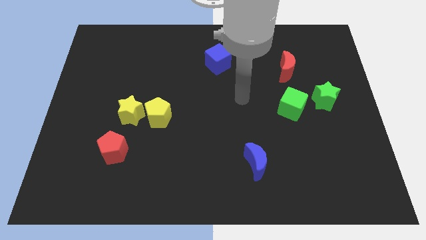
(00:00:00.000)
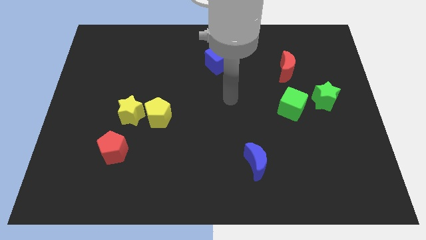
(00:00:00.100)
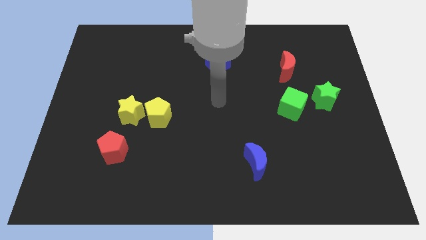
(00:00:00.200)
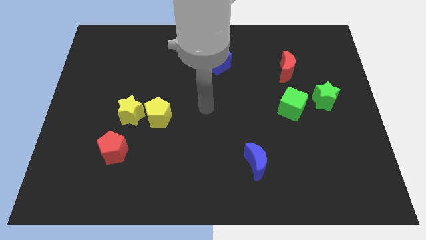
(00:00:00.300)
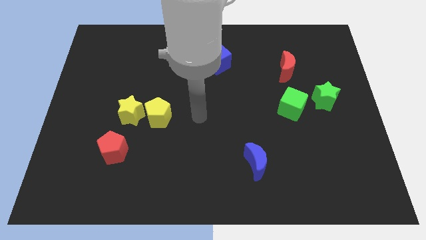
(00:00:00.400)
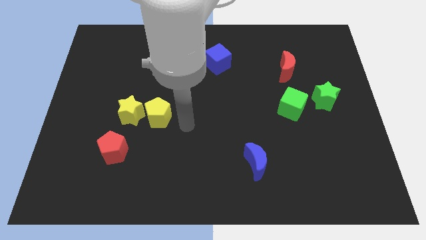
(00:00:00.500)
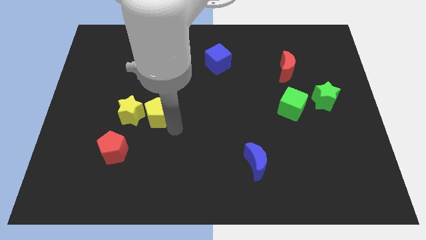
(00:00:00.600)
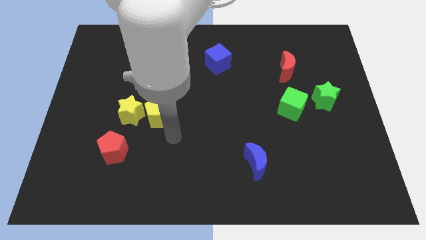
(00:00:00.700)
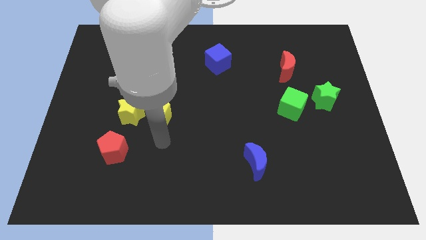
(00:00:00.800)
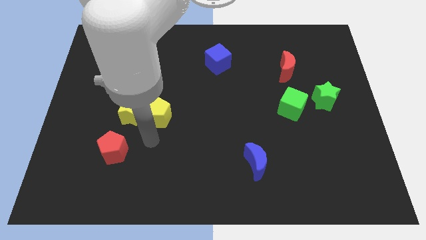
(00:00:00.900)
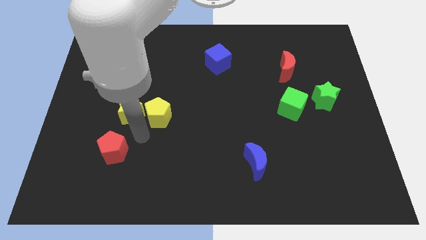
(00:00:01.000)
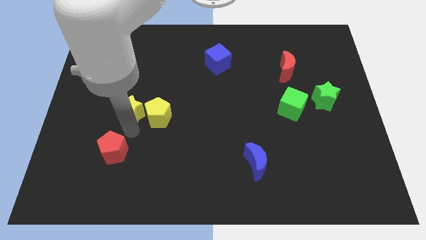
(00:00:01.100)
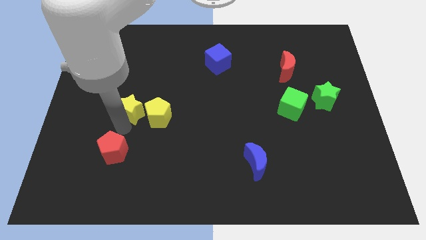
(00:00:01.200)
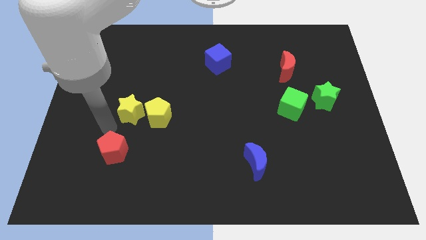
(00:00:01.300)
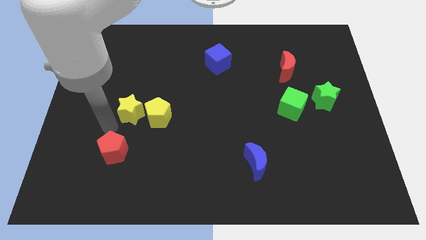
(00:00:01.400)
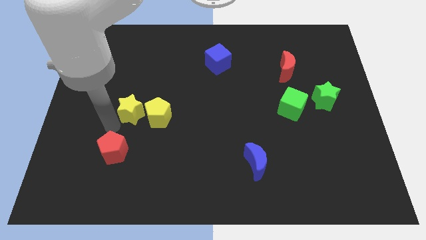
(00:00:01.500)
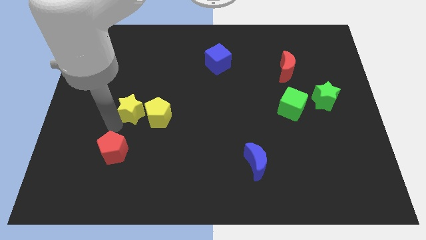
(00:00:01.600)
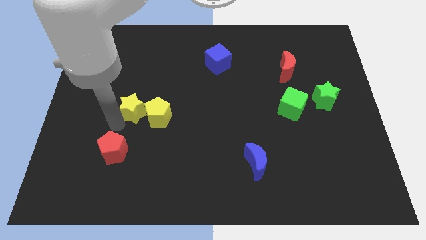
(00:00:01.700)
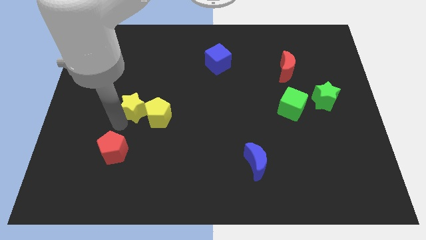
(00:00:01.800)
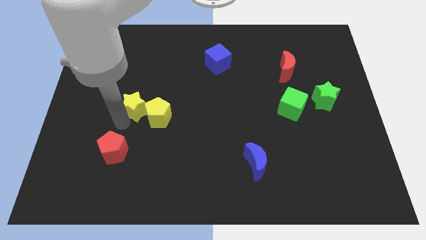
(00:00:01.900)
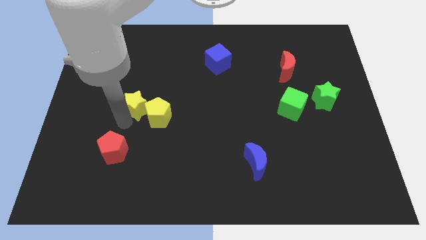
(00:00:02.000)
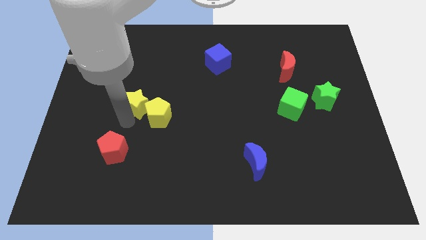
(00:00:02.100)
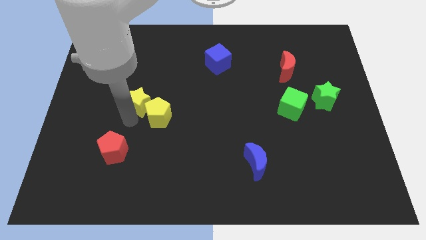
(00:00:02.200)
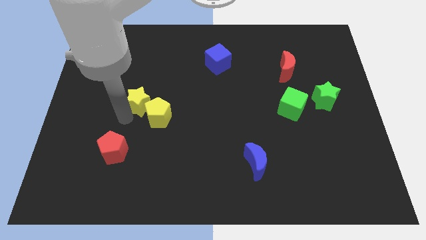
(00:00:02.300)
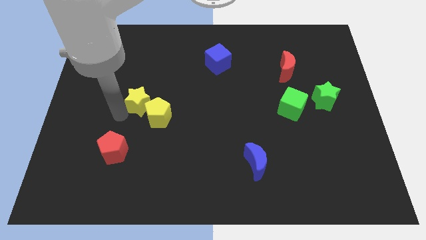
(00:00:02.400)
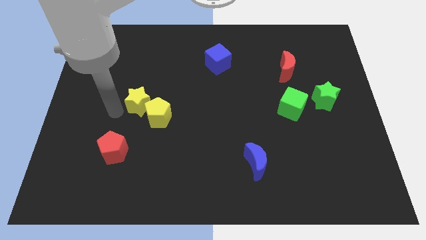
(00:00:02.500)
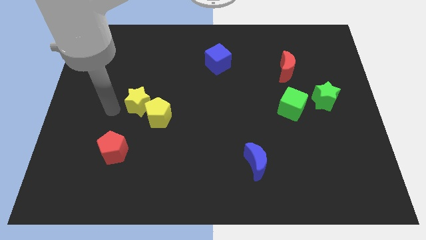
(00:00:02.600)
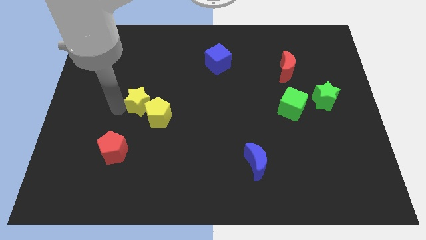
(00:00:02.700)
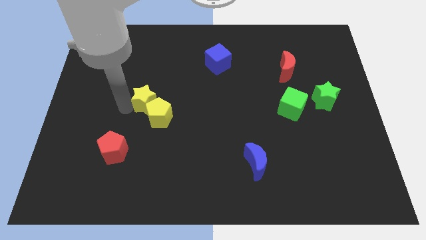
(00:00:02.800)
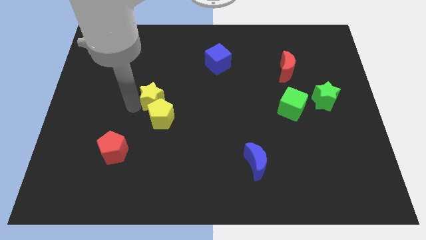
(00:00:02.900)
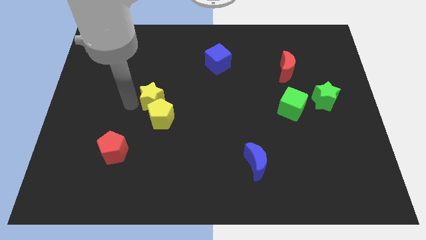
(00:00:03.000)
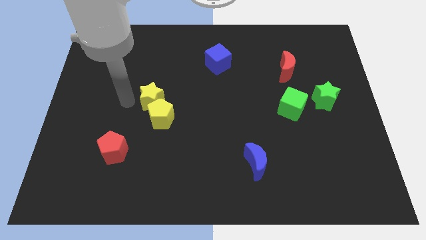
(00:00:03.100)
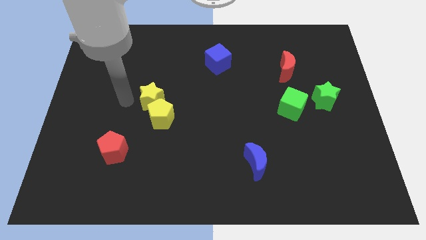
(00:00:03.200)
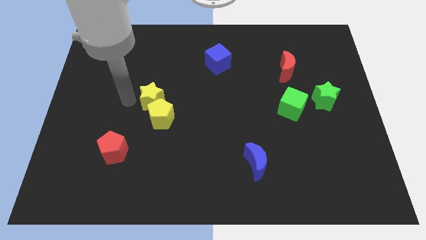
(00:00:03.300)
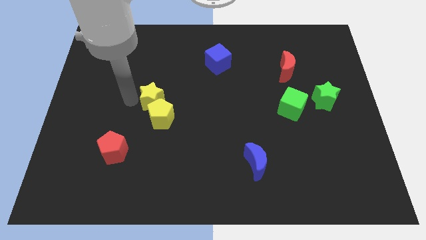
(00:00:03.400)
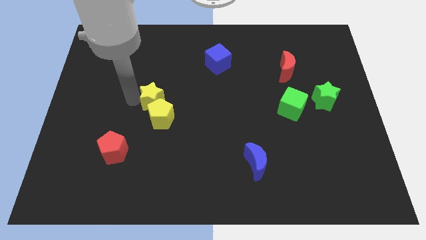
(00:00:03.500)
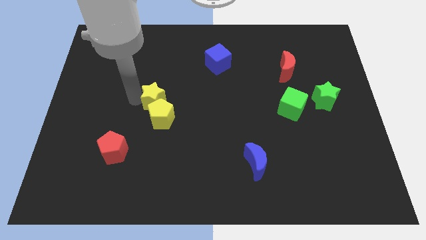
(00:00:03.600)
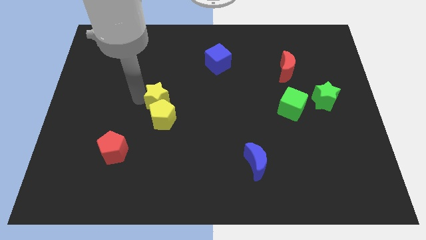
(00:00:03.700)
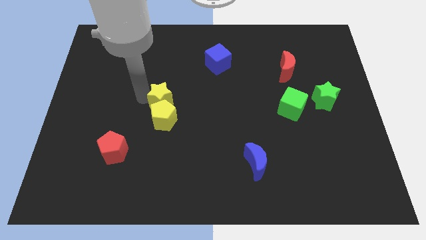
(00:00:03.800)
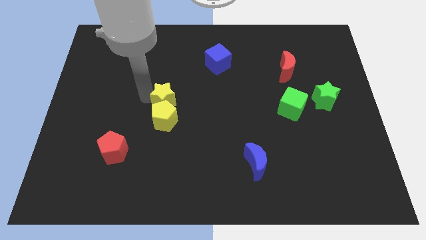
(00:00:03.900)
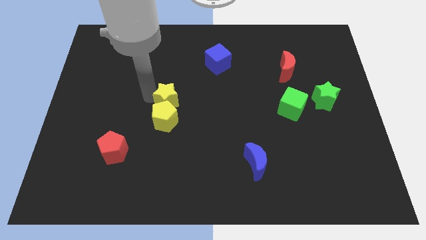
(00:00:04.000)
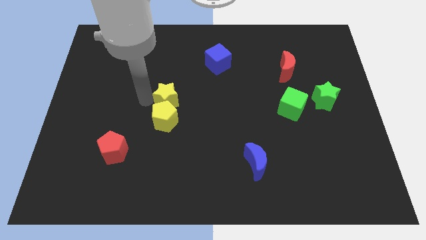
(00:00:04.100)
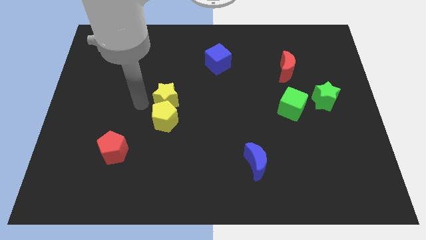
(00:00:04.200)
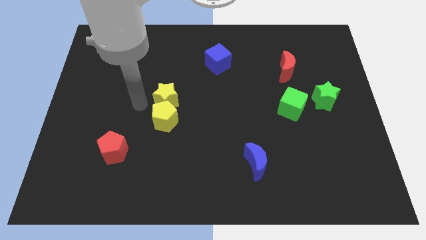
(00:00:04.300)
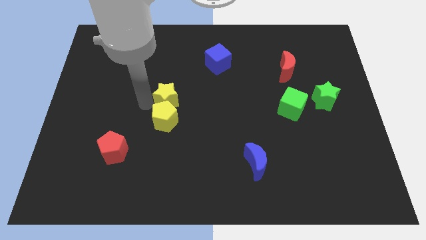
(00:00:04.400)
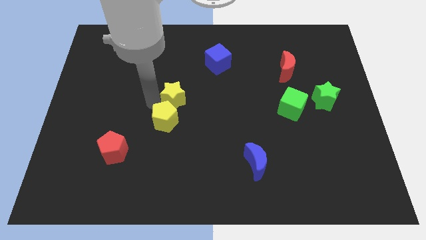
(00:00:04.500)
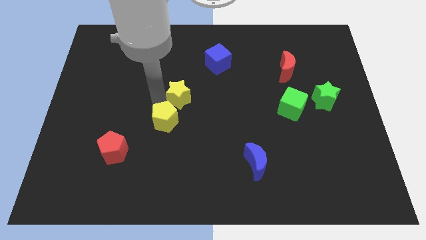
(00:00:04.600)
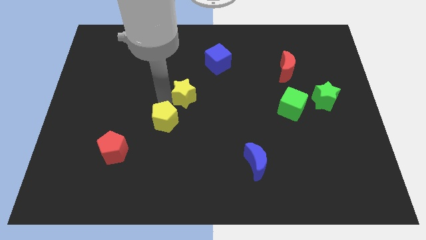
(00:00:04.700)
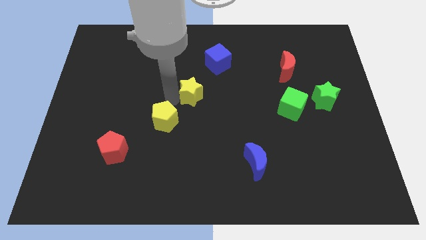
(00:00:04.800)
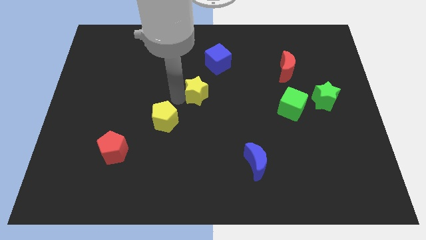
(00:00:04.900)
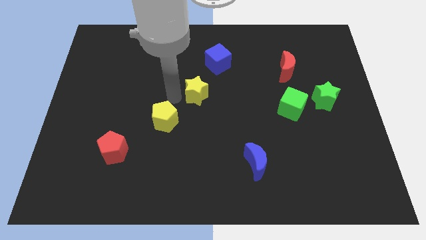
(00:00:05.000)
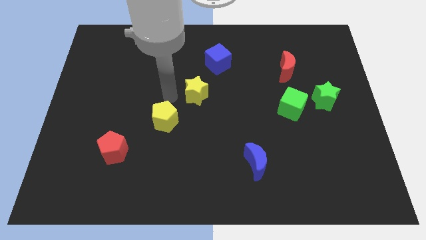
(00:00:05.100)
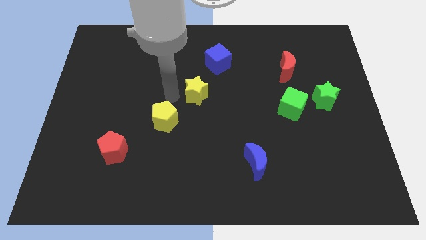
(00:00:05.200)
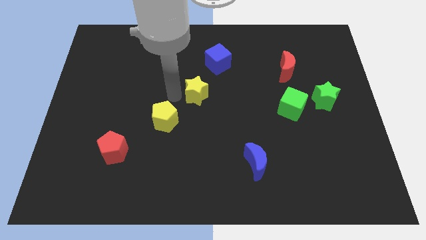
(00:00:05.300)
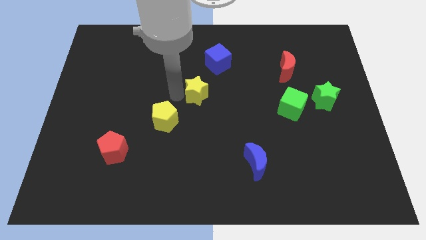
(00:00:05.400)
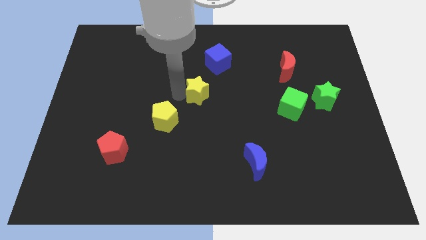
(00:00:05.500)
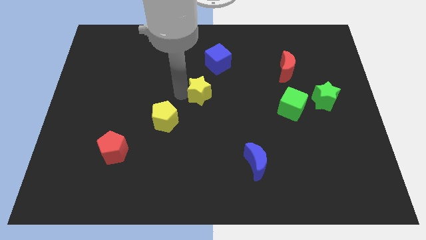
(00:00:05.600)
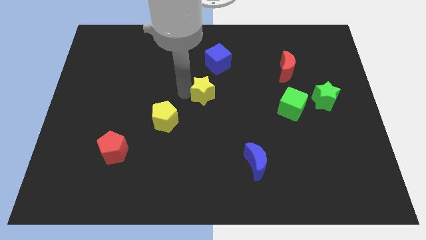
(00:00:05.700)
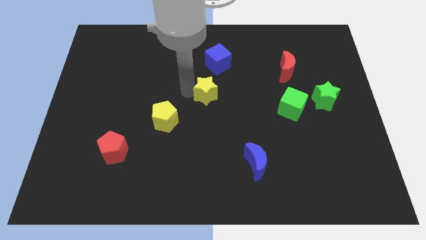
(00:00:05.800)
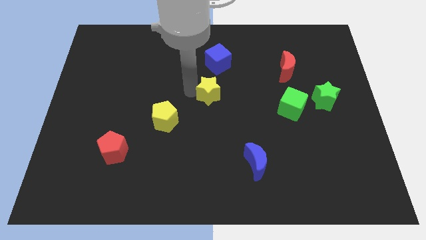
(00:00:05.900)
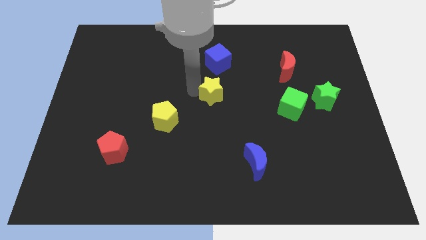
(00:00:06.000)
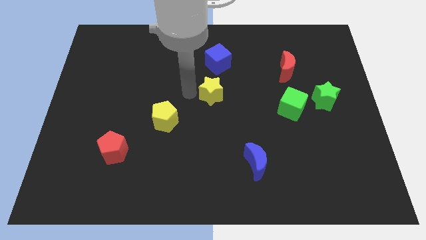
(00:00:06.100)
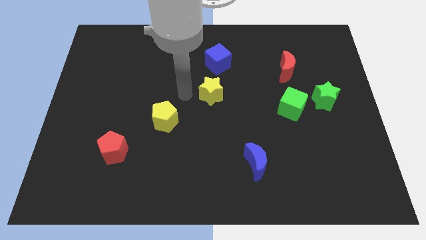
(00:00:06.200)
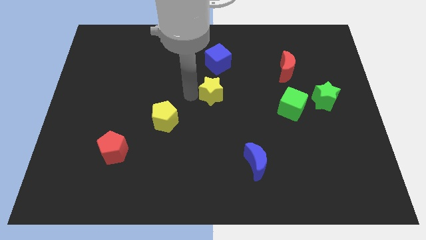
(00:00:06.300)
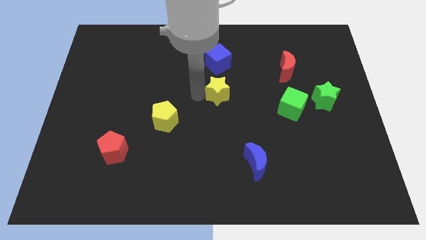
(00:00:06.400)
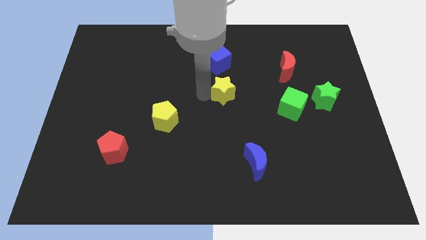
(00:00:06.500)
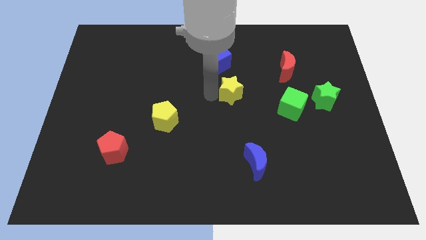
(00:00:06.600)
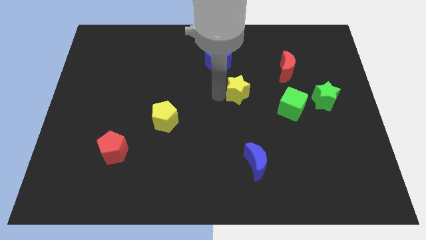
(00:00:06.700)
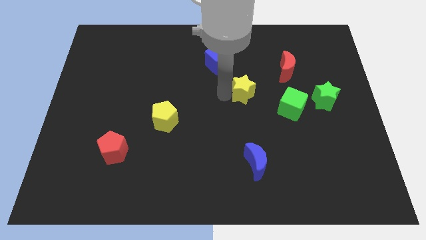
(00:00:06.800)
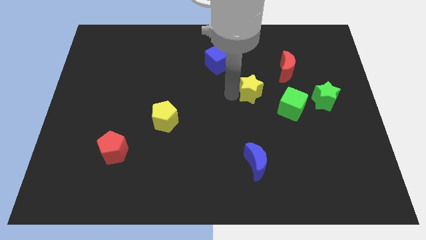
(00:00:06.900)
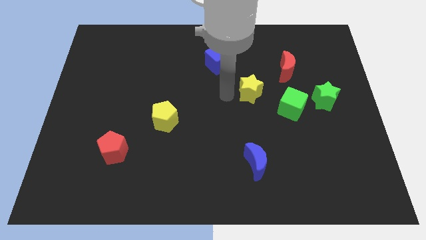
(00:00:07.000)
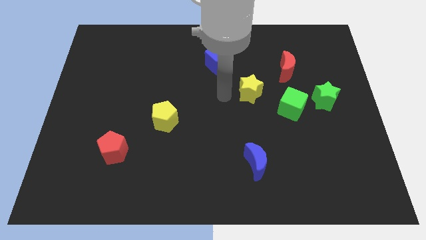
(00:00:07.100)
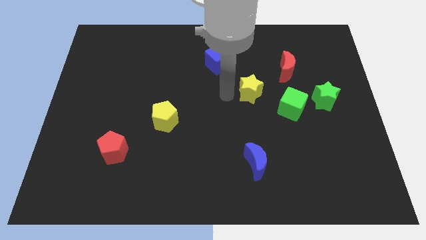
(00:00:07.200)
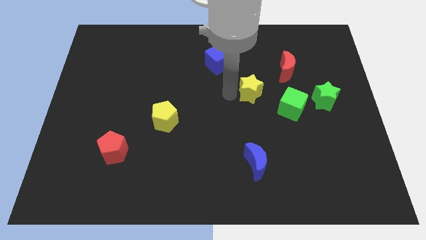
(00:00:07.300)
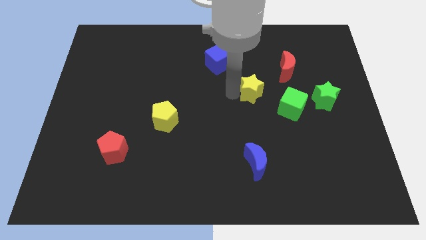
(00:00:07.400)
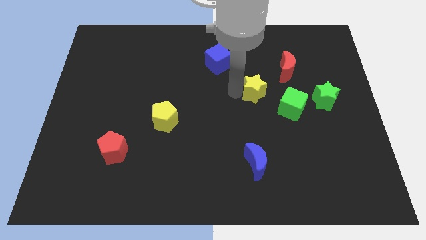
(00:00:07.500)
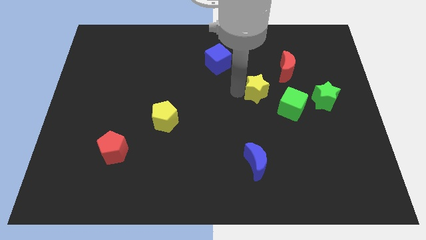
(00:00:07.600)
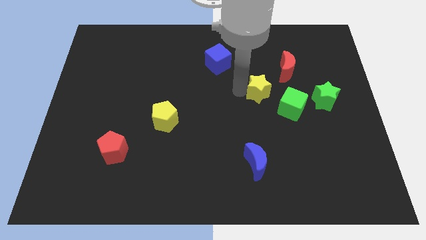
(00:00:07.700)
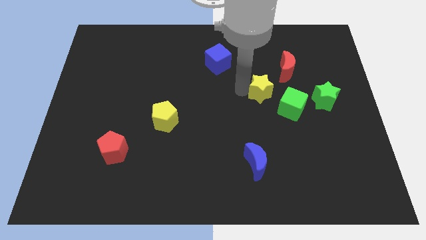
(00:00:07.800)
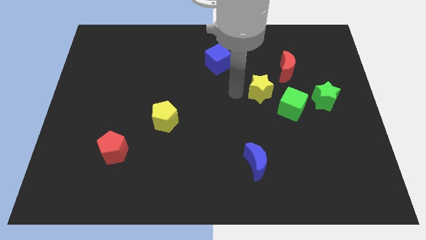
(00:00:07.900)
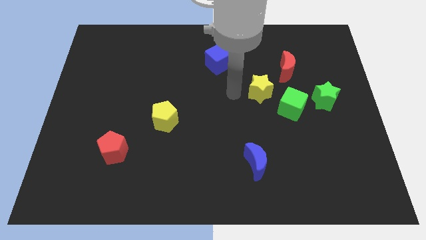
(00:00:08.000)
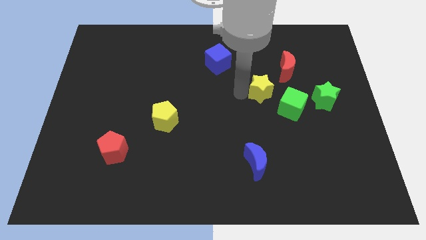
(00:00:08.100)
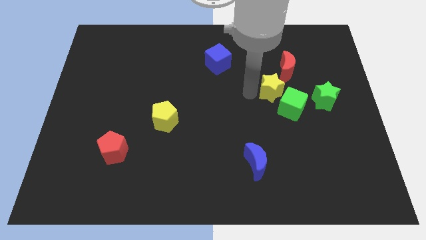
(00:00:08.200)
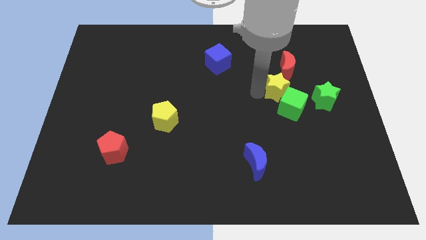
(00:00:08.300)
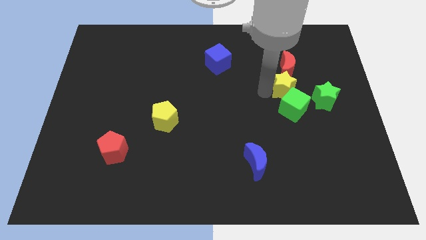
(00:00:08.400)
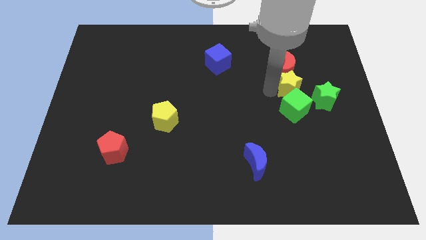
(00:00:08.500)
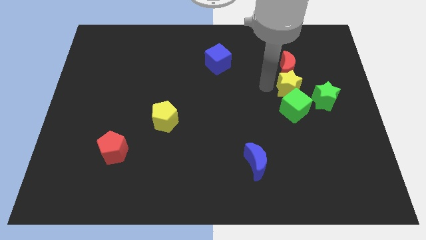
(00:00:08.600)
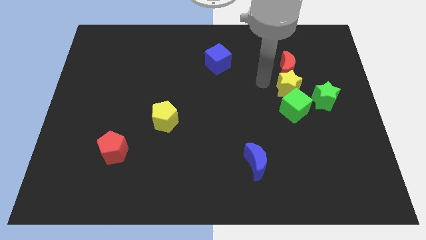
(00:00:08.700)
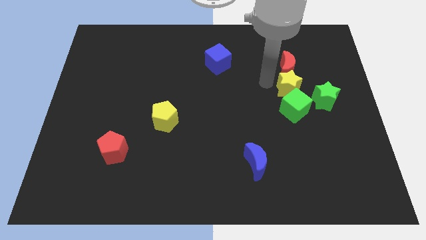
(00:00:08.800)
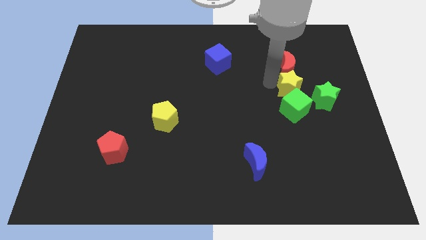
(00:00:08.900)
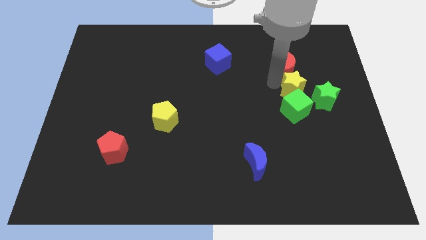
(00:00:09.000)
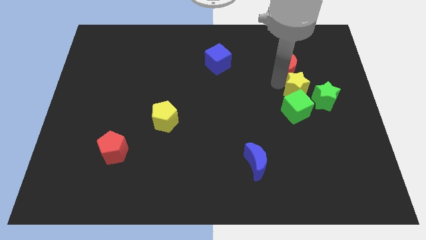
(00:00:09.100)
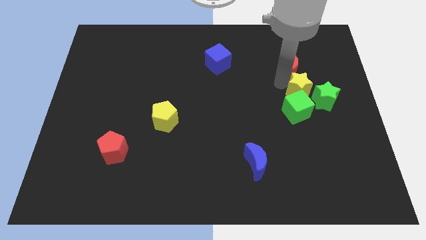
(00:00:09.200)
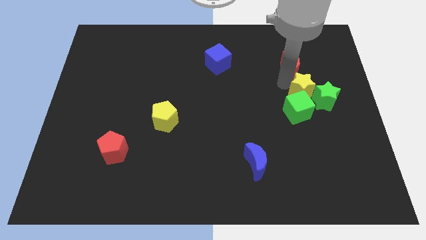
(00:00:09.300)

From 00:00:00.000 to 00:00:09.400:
push the yellow star towards the green star
